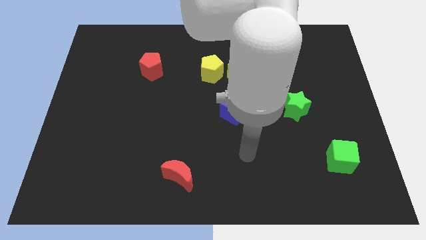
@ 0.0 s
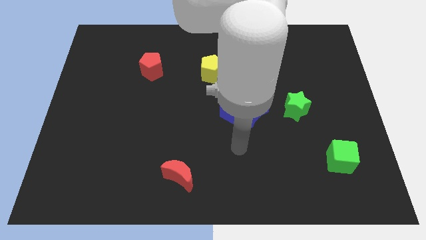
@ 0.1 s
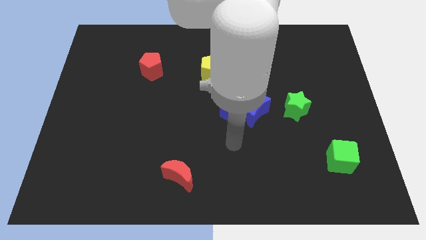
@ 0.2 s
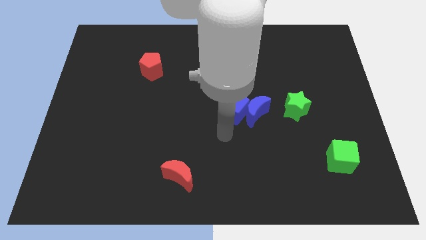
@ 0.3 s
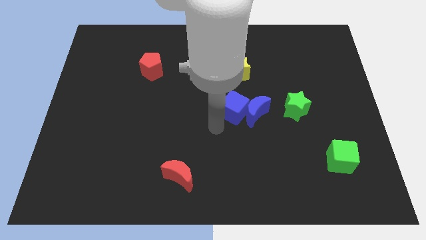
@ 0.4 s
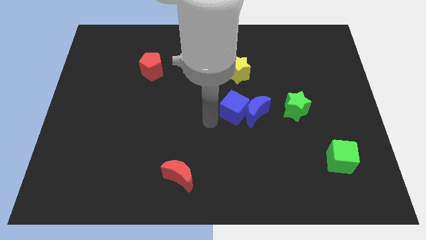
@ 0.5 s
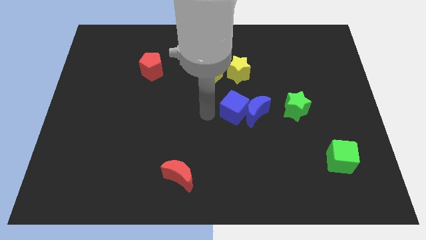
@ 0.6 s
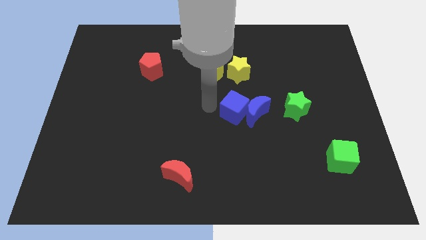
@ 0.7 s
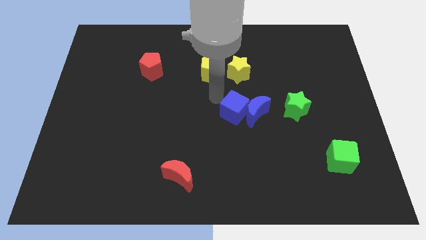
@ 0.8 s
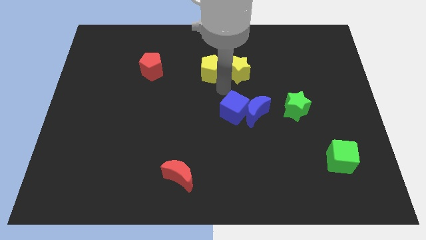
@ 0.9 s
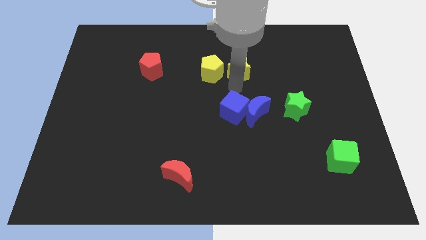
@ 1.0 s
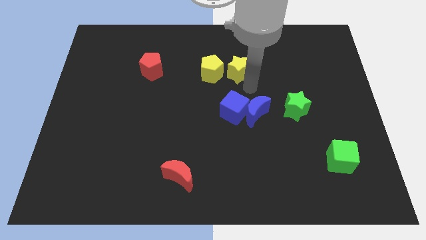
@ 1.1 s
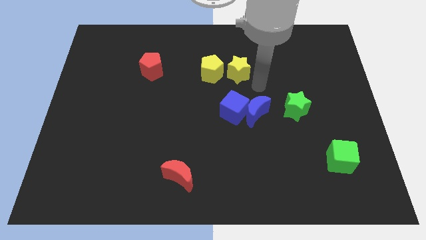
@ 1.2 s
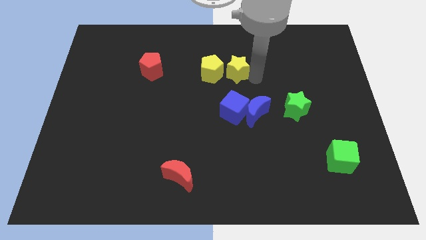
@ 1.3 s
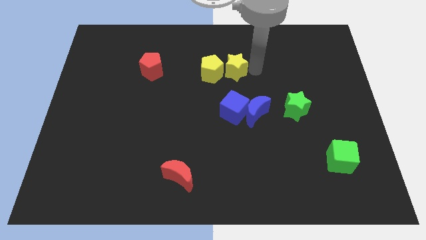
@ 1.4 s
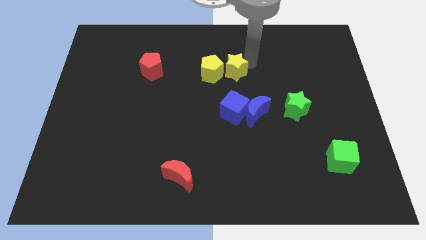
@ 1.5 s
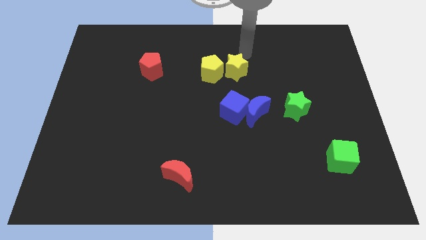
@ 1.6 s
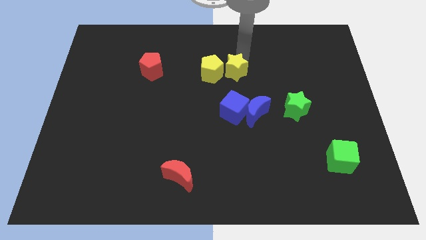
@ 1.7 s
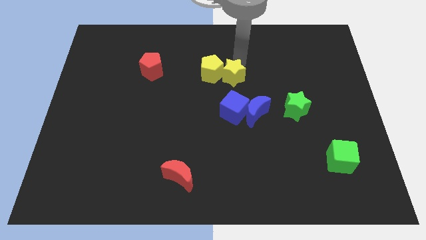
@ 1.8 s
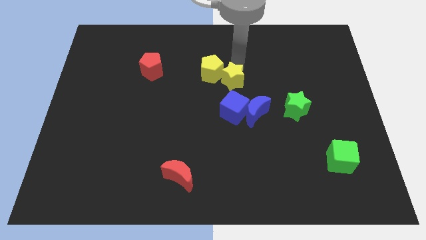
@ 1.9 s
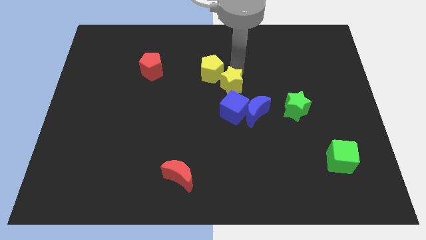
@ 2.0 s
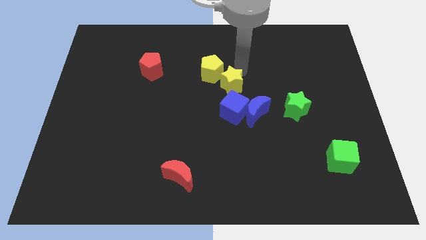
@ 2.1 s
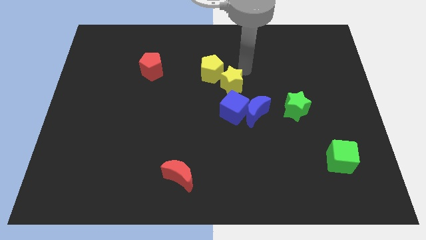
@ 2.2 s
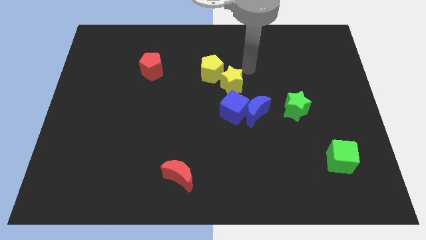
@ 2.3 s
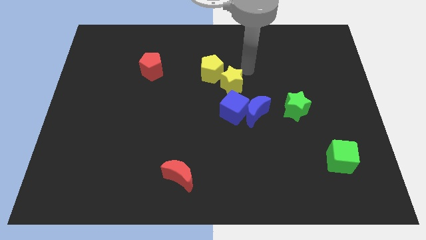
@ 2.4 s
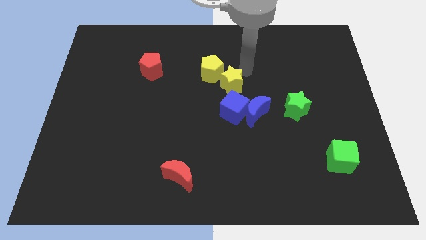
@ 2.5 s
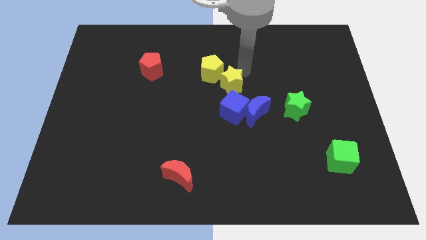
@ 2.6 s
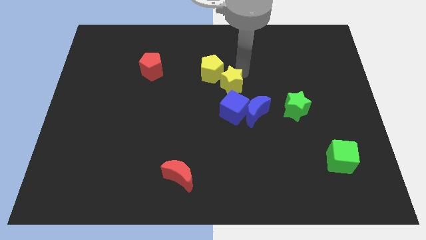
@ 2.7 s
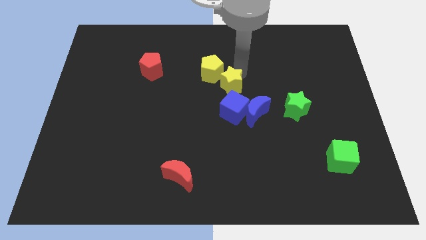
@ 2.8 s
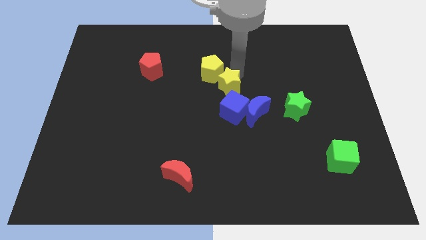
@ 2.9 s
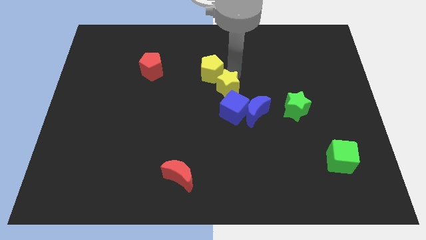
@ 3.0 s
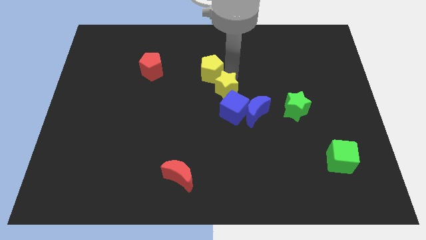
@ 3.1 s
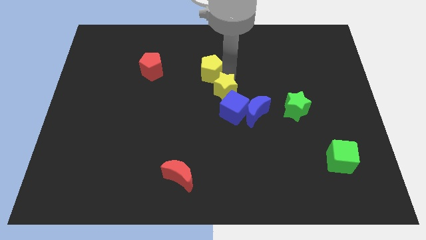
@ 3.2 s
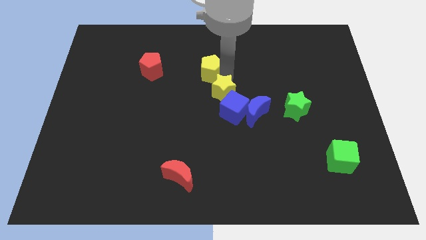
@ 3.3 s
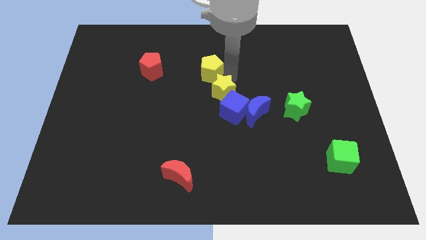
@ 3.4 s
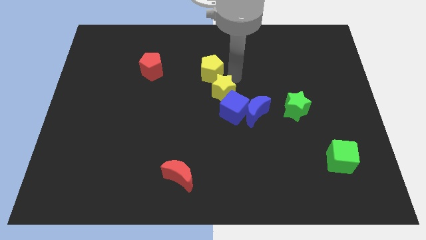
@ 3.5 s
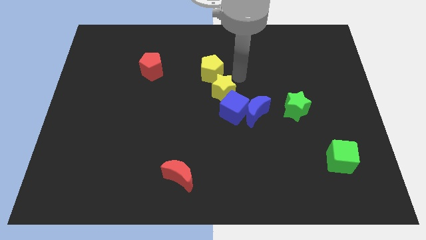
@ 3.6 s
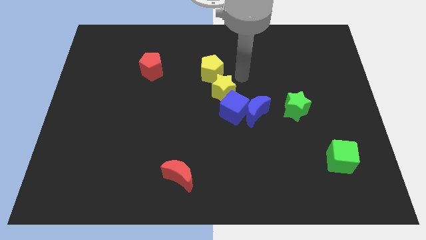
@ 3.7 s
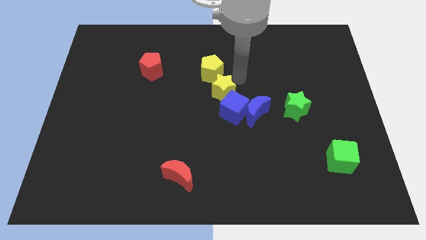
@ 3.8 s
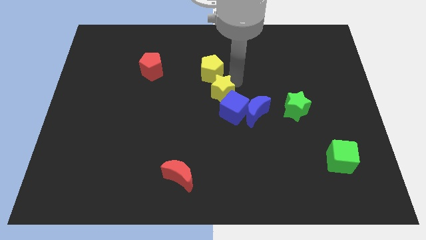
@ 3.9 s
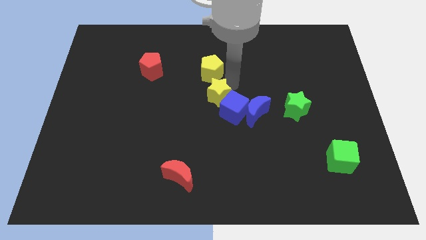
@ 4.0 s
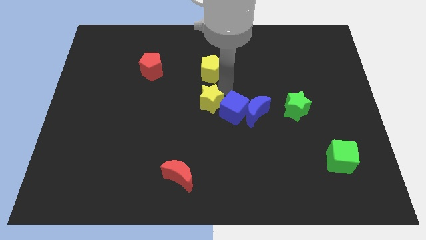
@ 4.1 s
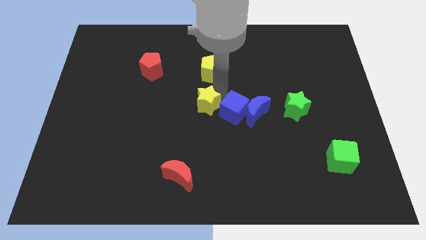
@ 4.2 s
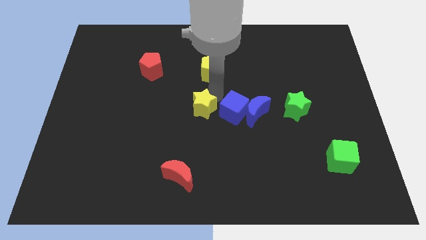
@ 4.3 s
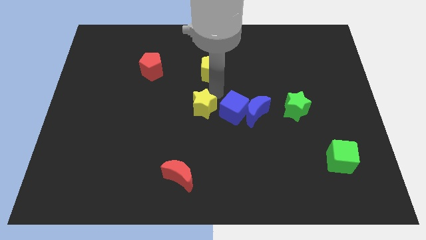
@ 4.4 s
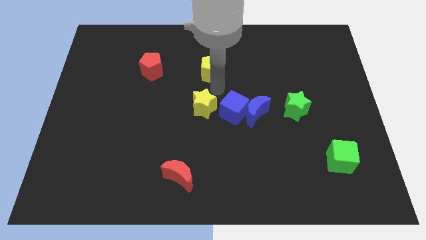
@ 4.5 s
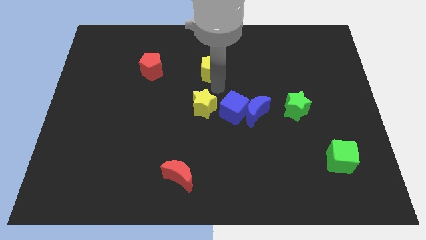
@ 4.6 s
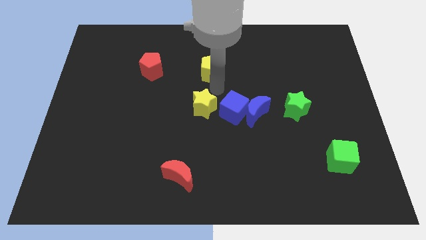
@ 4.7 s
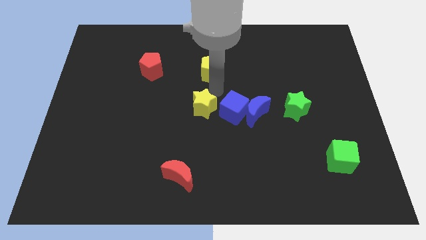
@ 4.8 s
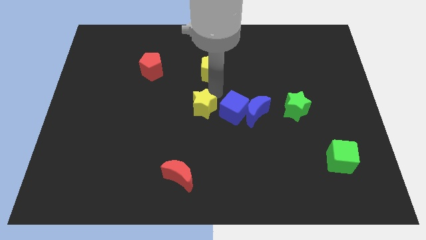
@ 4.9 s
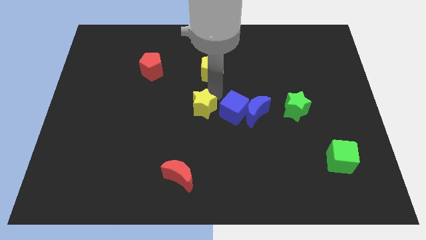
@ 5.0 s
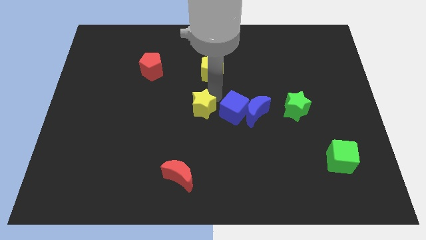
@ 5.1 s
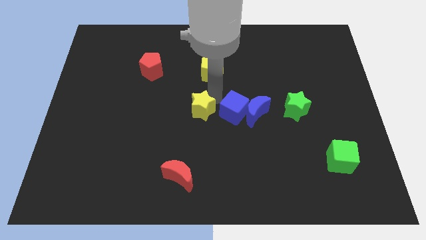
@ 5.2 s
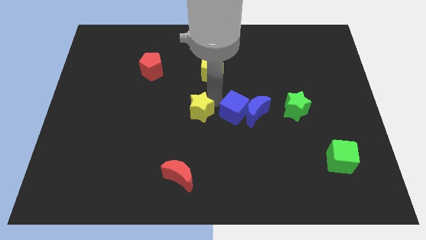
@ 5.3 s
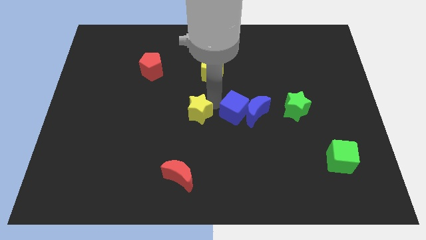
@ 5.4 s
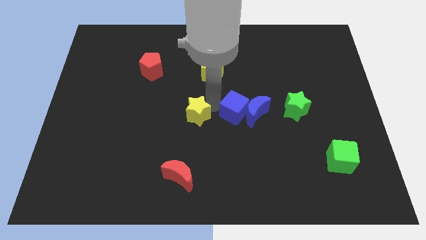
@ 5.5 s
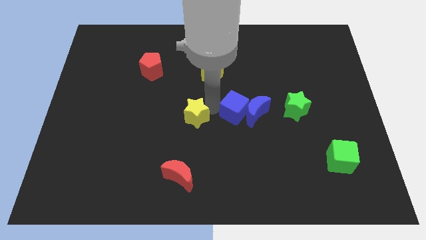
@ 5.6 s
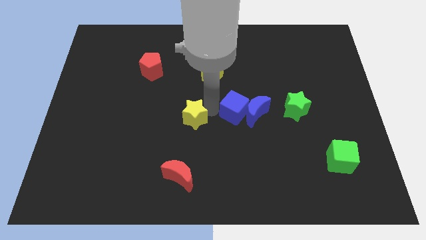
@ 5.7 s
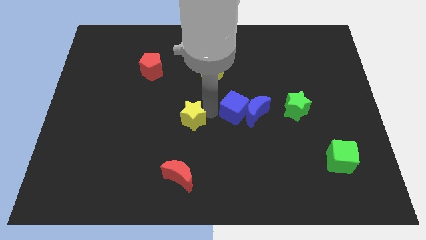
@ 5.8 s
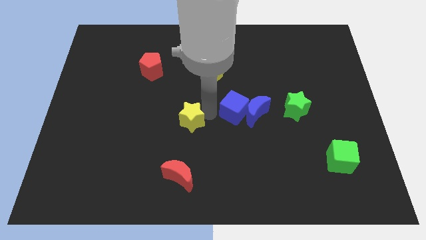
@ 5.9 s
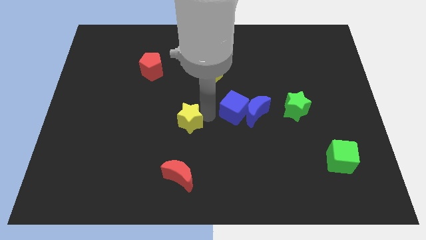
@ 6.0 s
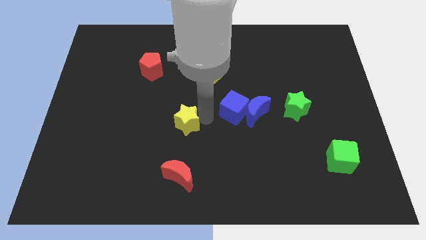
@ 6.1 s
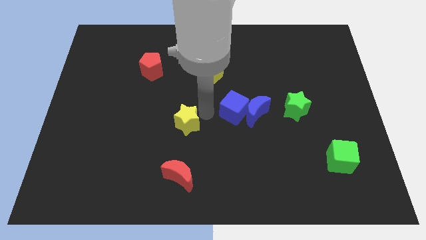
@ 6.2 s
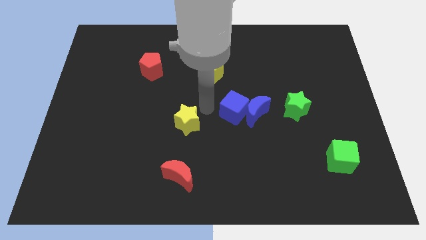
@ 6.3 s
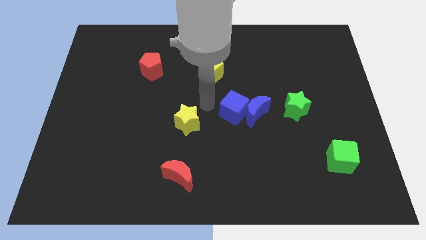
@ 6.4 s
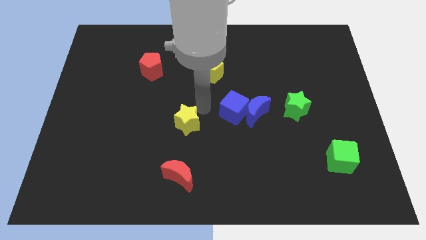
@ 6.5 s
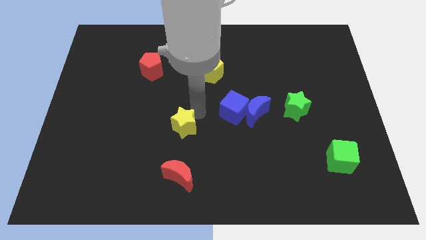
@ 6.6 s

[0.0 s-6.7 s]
slide the yellow star downwards and left diagonally

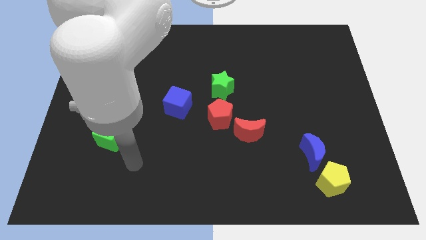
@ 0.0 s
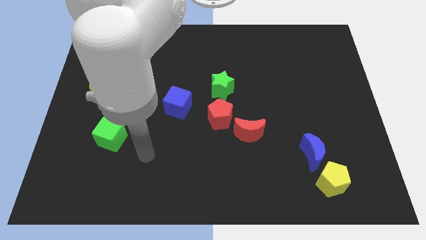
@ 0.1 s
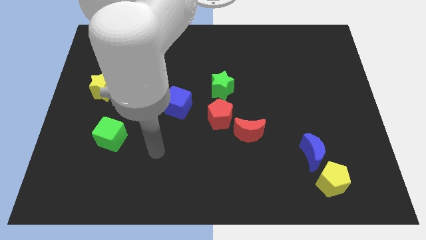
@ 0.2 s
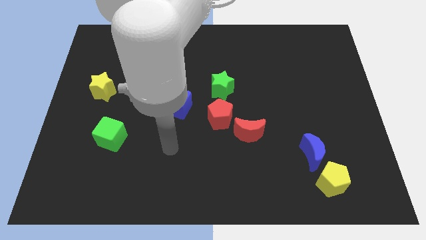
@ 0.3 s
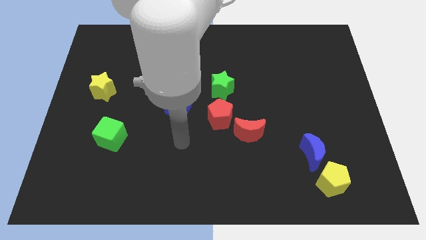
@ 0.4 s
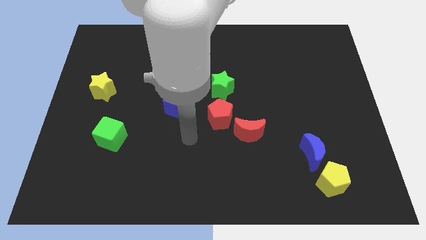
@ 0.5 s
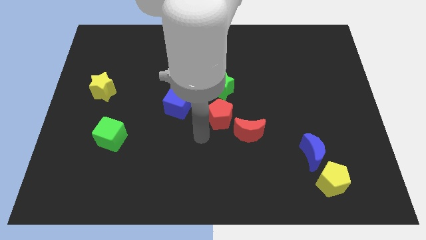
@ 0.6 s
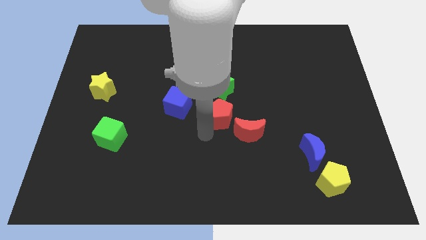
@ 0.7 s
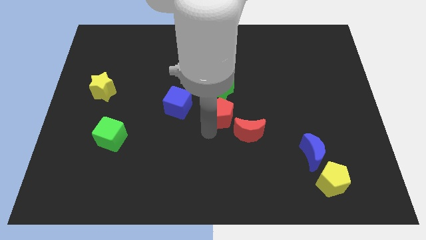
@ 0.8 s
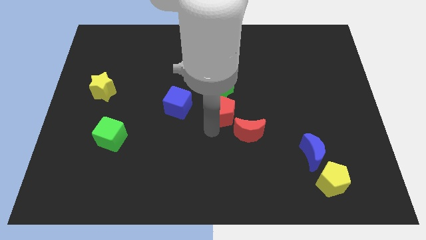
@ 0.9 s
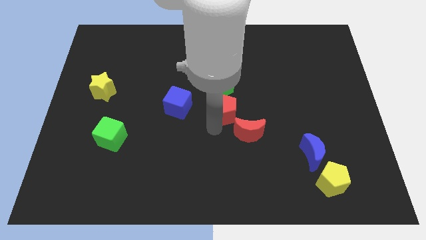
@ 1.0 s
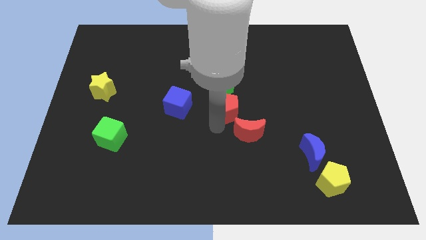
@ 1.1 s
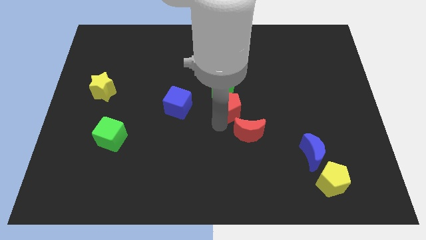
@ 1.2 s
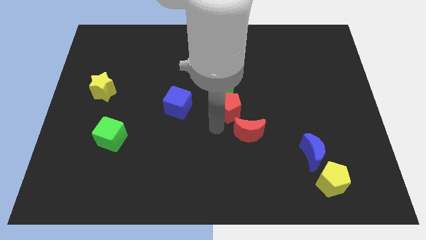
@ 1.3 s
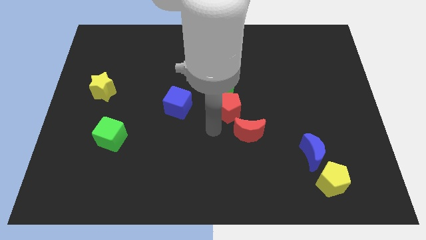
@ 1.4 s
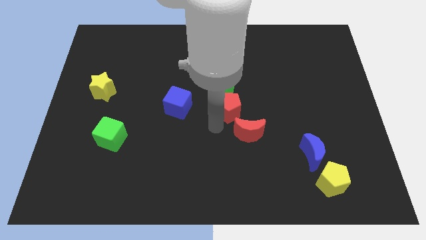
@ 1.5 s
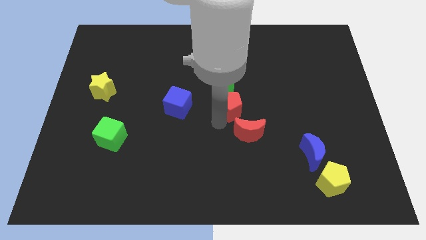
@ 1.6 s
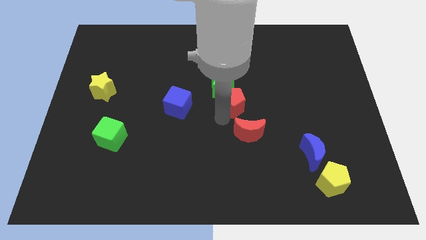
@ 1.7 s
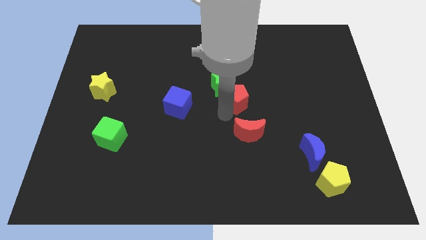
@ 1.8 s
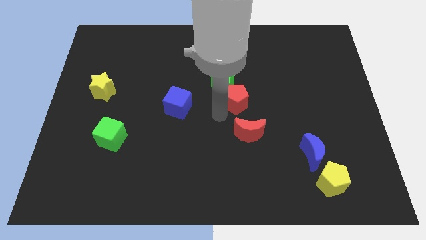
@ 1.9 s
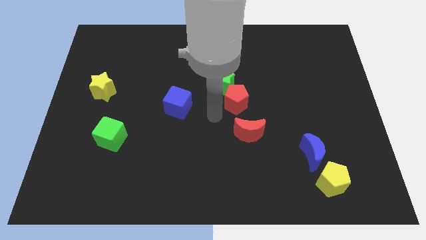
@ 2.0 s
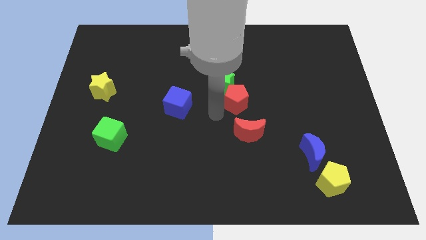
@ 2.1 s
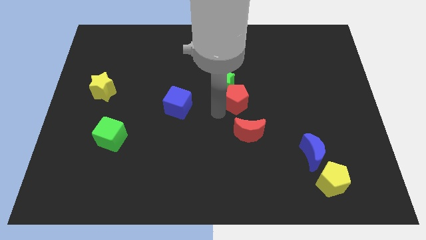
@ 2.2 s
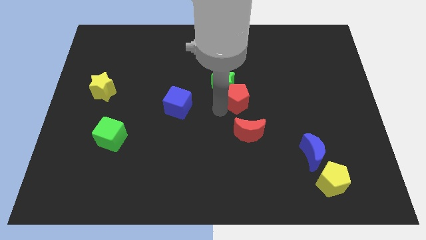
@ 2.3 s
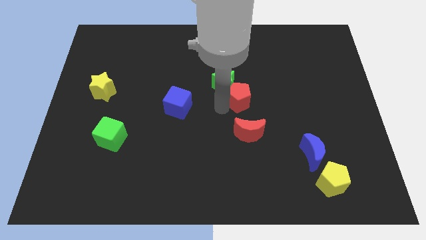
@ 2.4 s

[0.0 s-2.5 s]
slightly slide the red pentagon upwards and to the right diagonally
